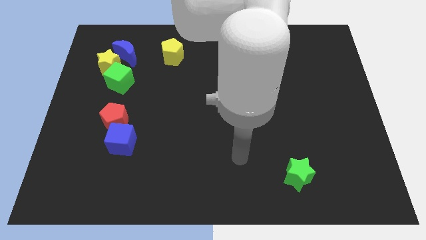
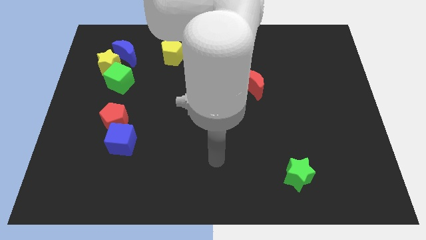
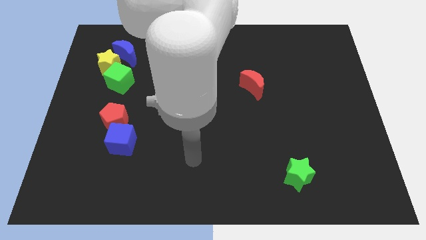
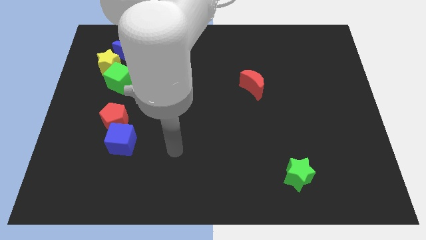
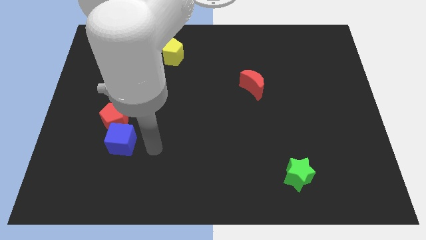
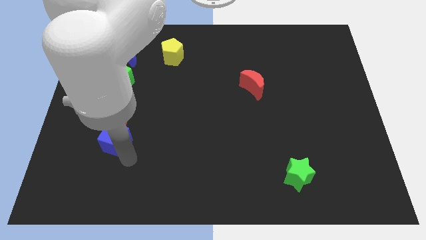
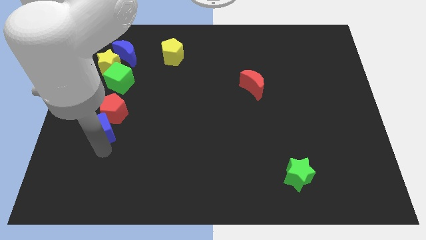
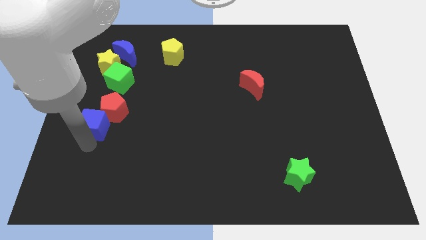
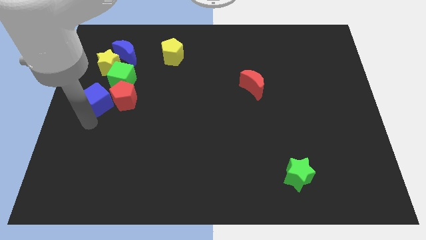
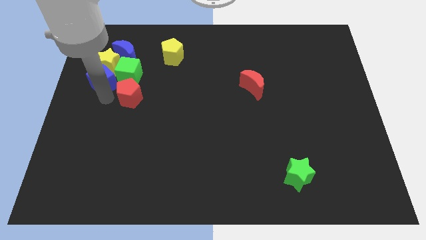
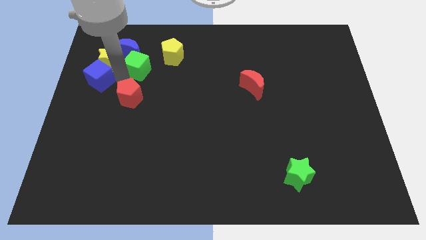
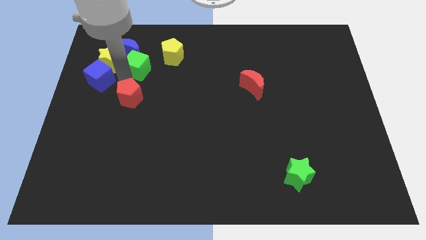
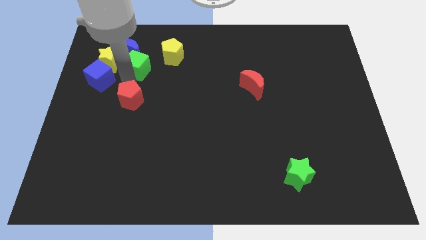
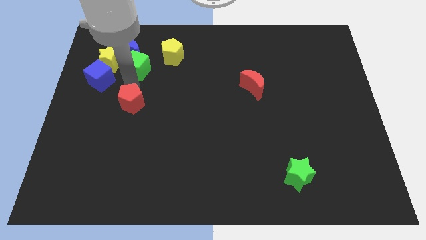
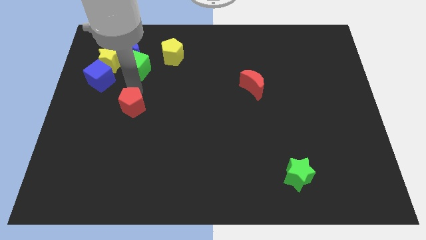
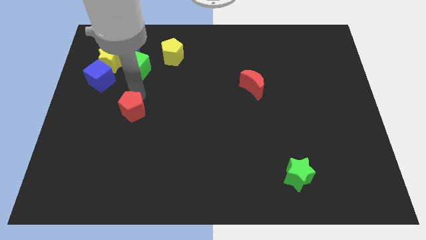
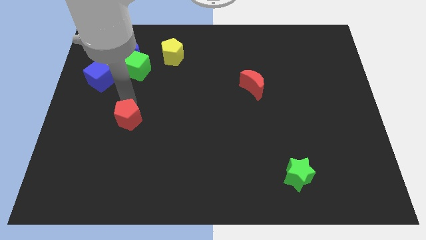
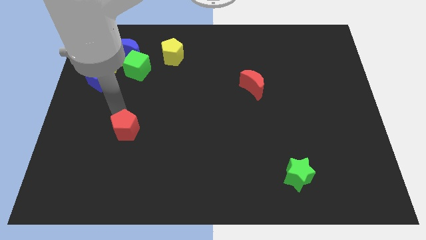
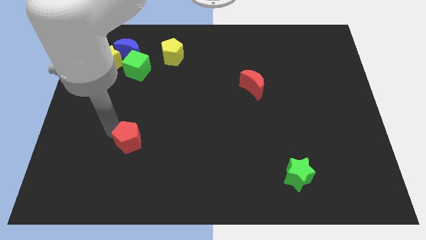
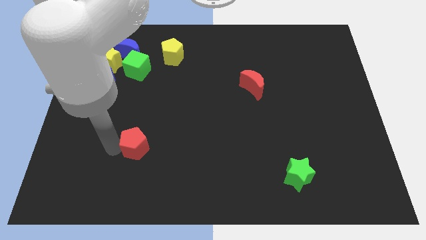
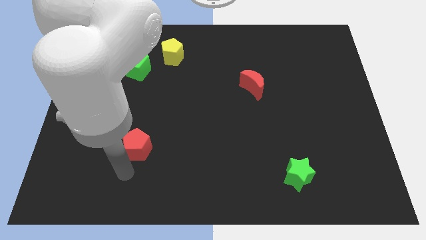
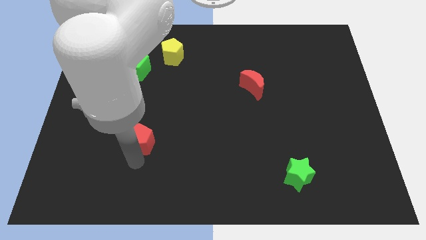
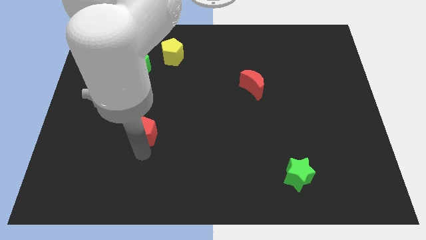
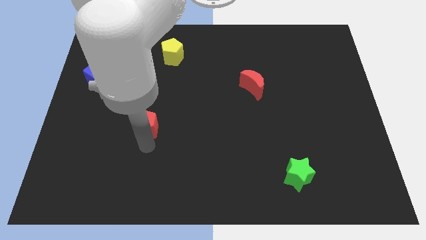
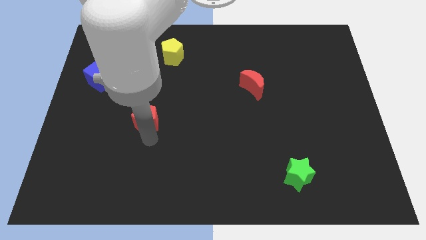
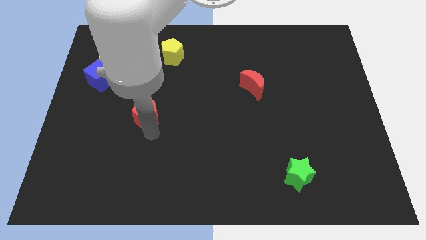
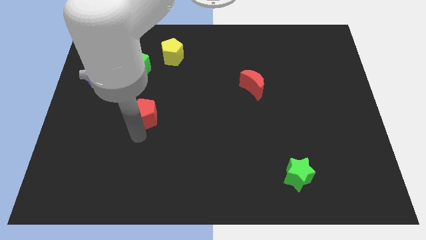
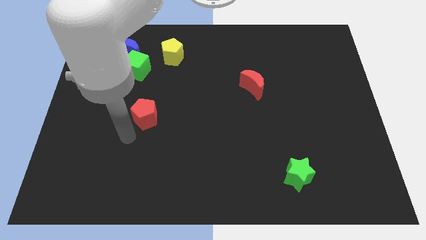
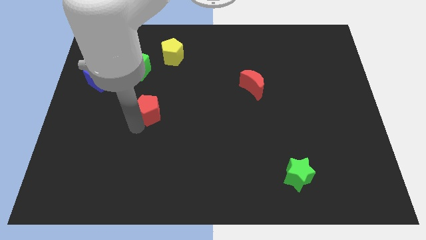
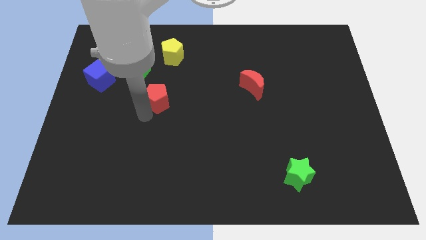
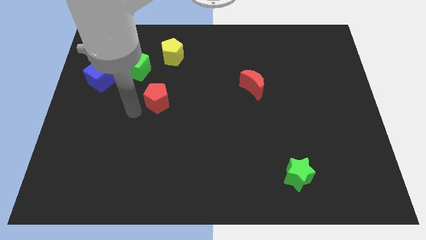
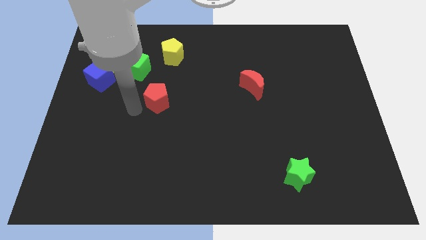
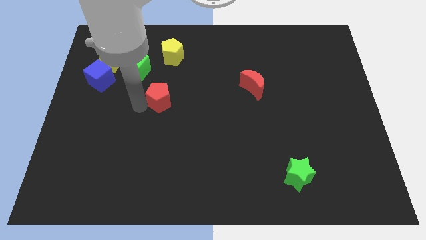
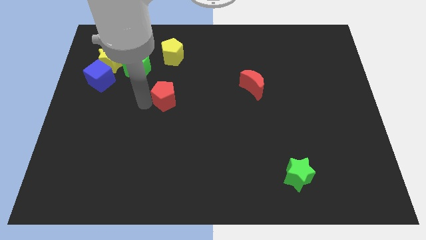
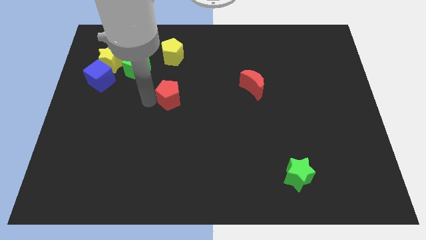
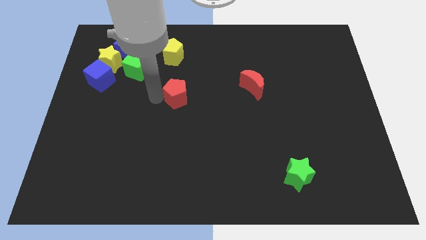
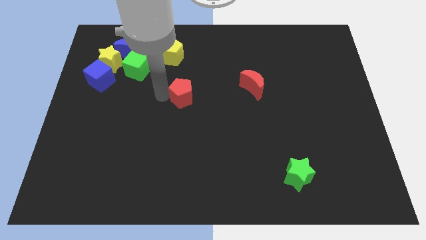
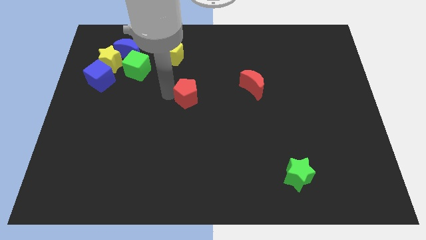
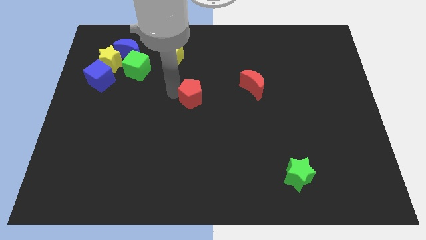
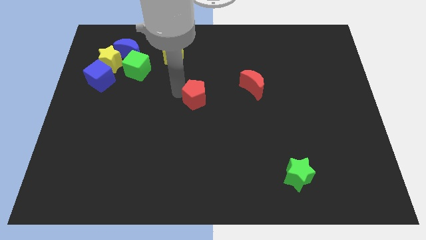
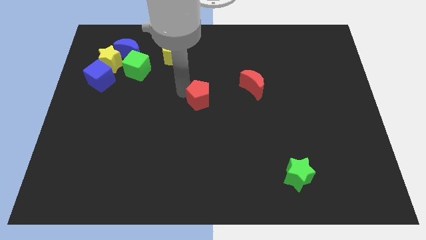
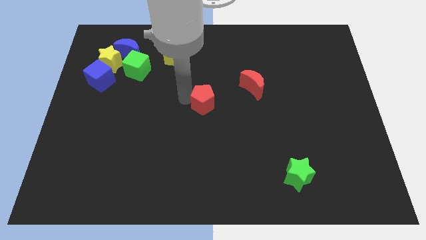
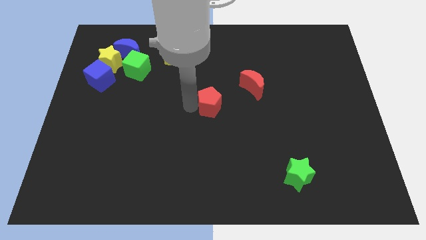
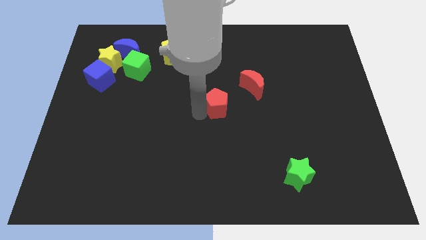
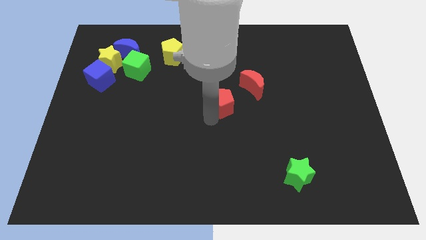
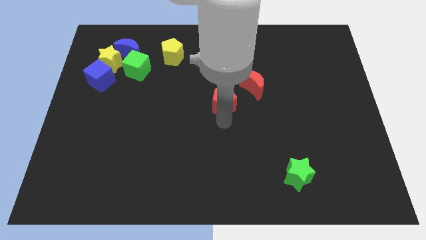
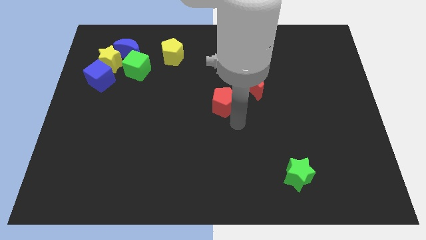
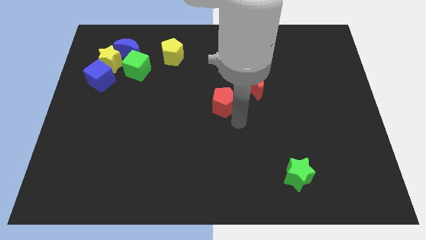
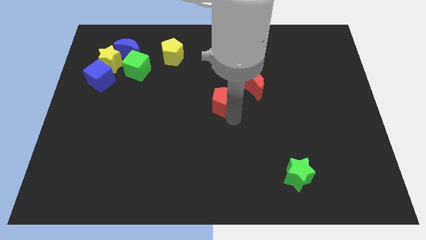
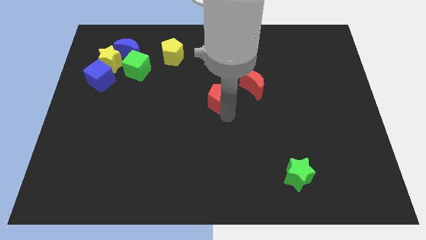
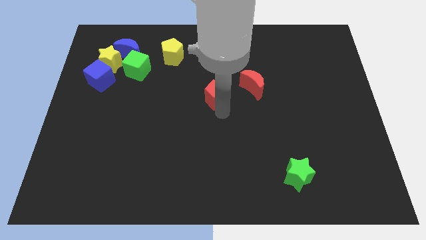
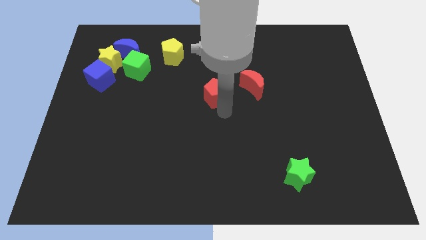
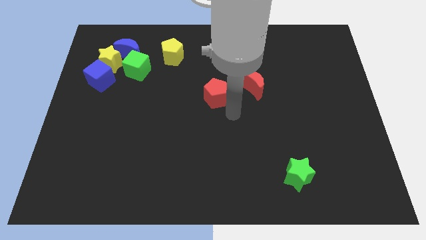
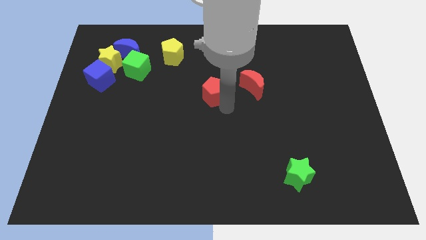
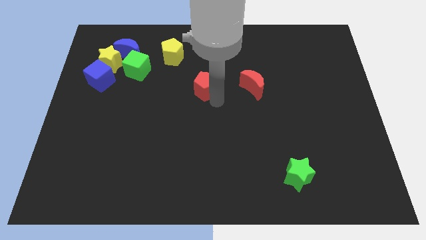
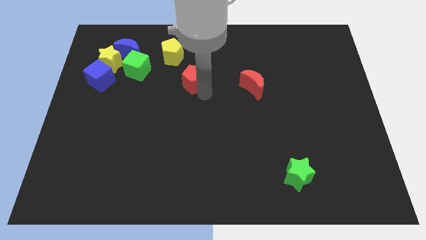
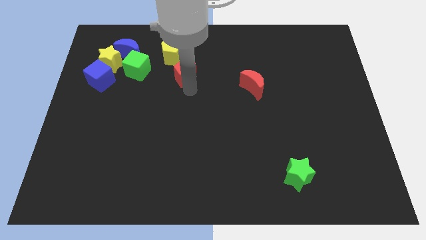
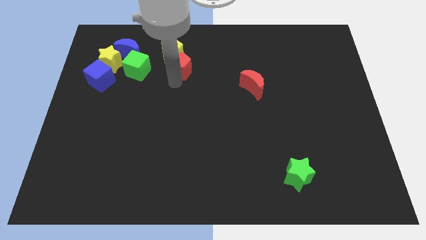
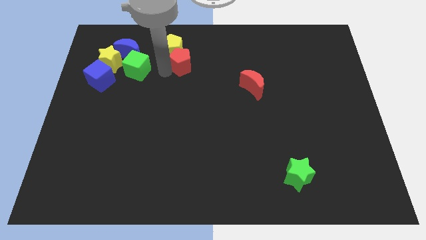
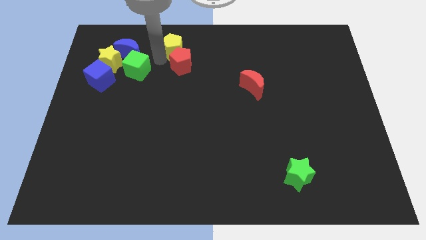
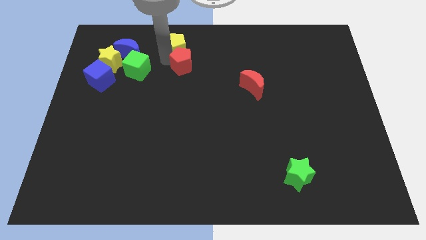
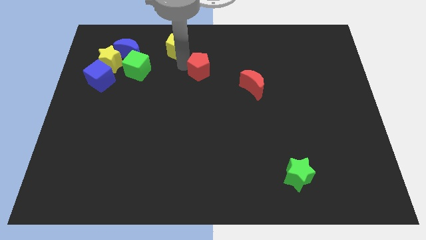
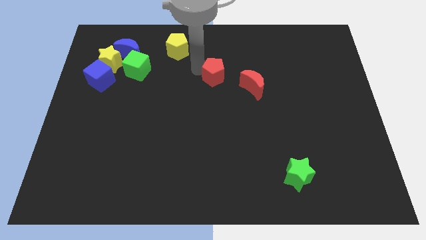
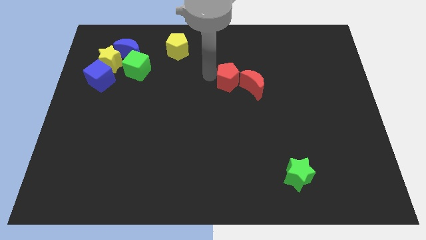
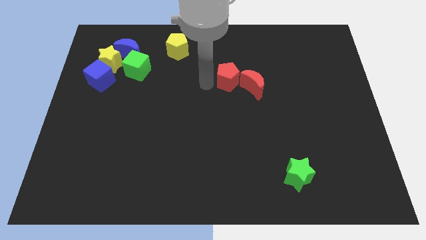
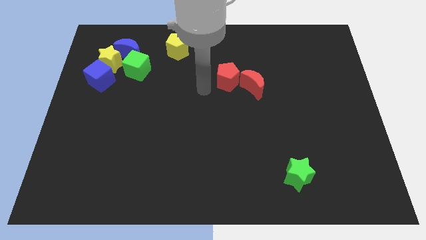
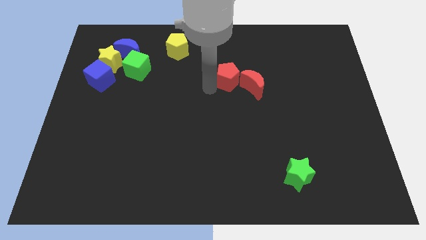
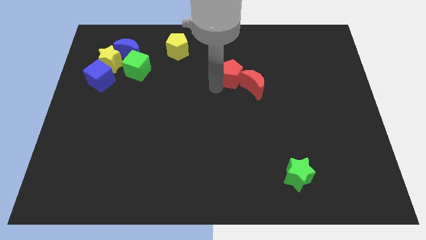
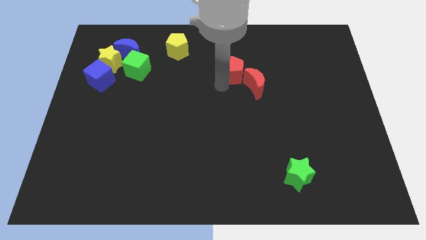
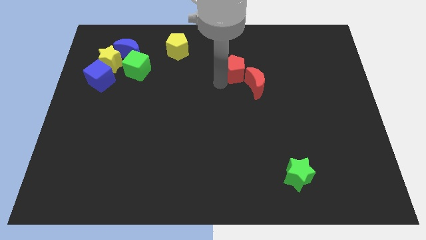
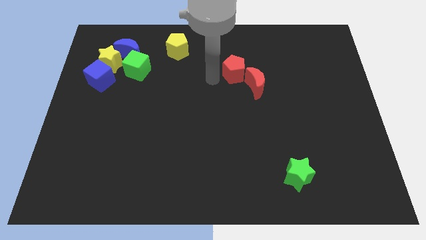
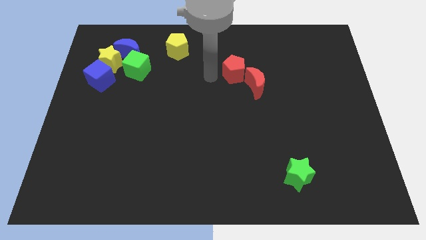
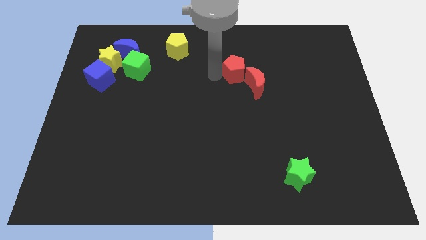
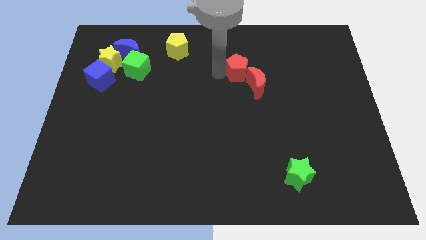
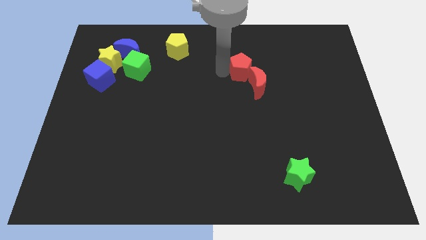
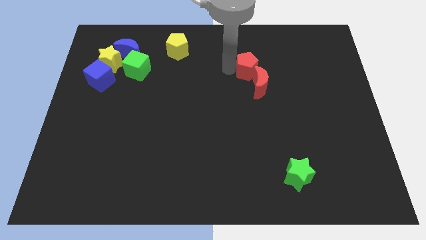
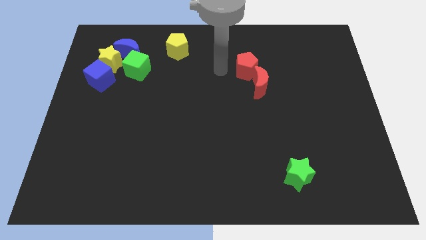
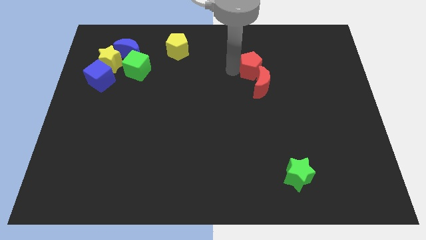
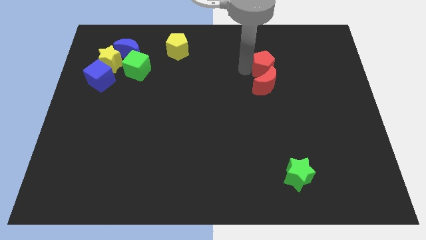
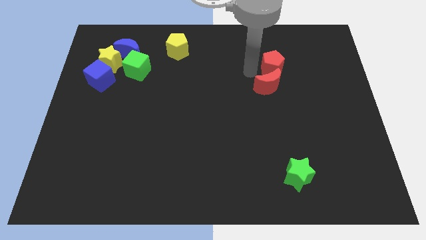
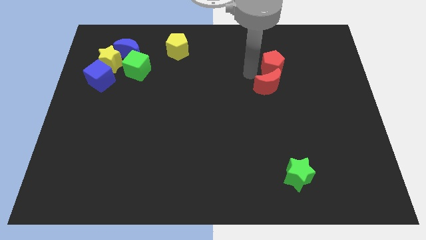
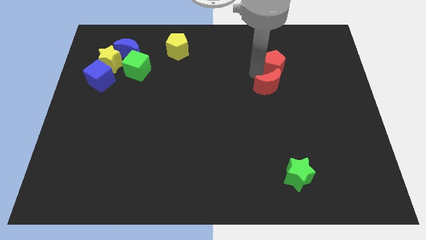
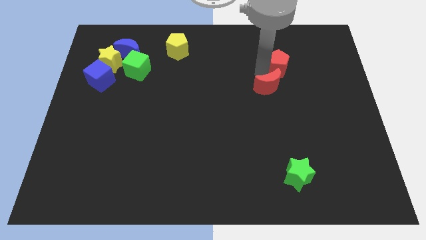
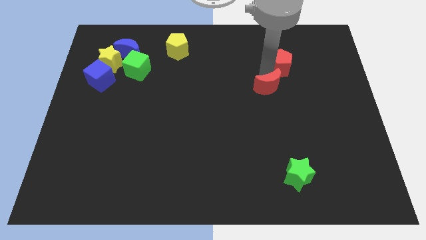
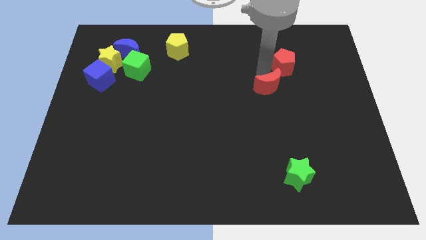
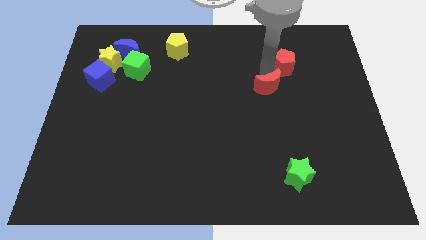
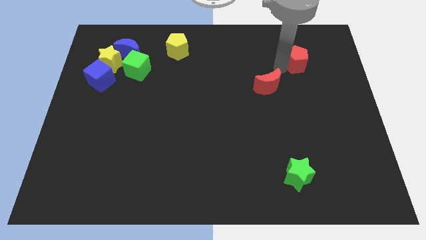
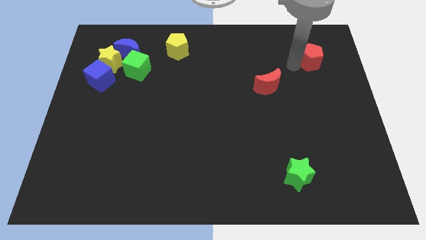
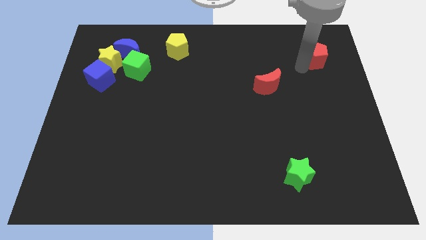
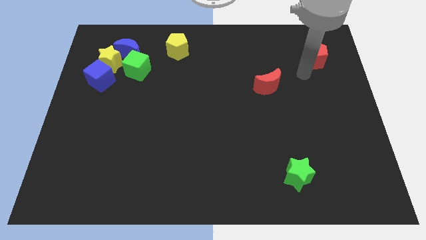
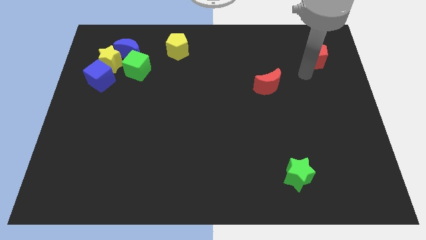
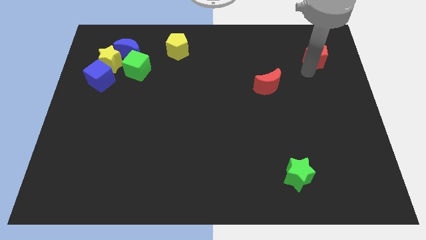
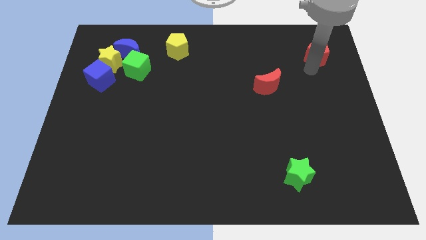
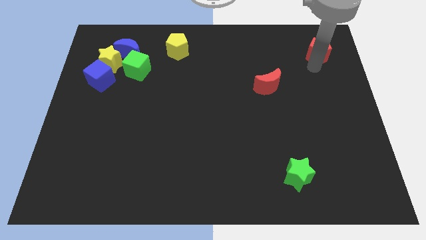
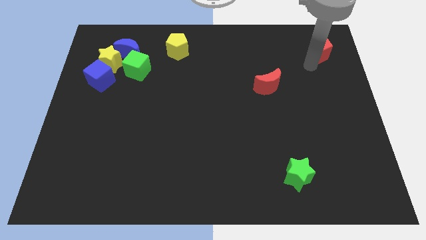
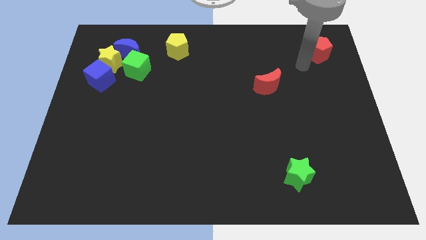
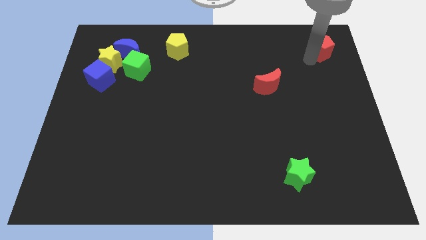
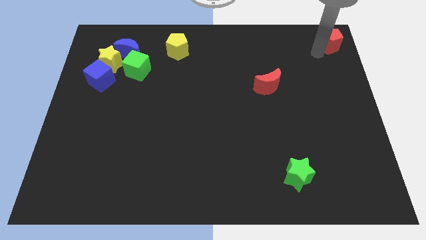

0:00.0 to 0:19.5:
move the red pentagon to the top right of the board
